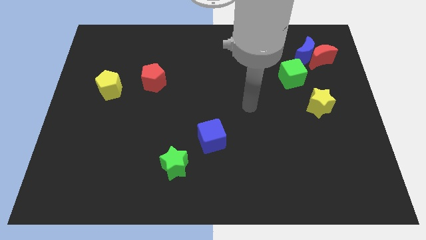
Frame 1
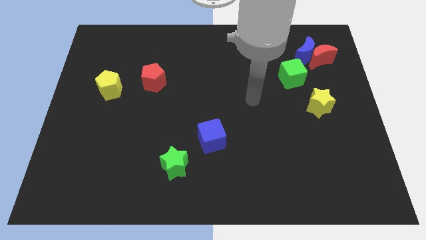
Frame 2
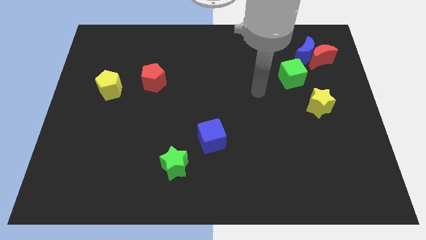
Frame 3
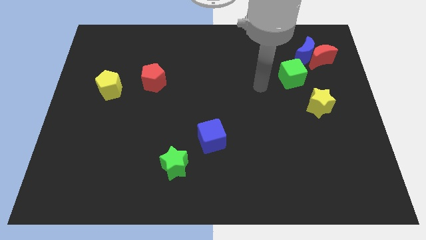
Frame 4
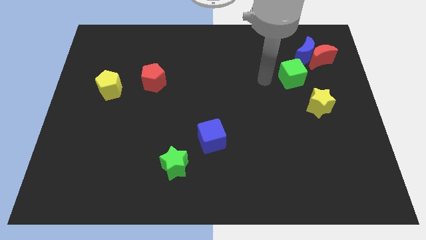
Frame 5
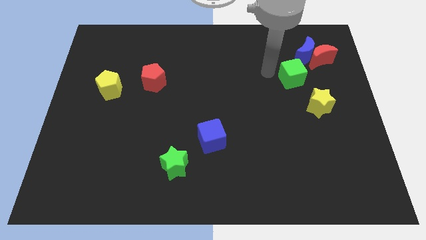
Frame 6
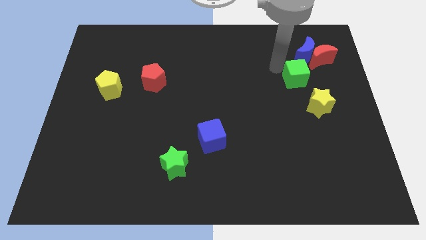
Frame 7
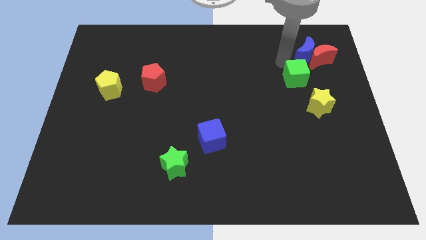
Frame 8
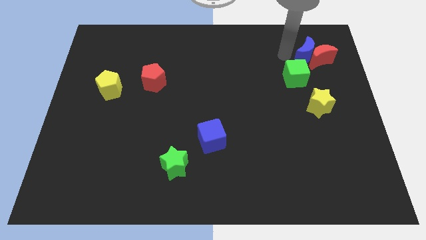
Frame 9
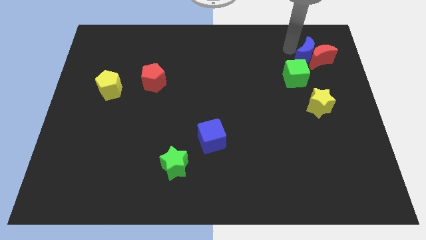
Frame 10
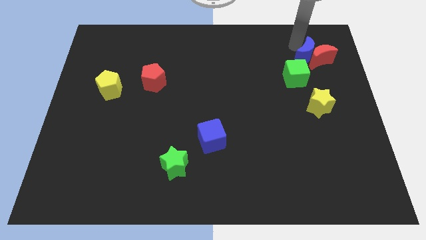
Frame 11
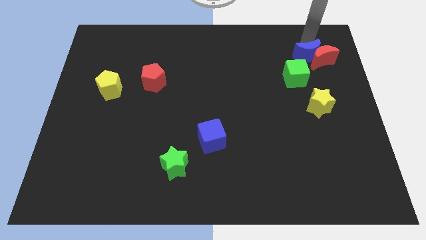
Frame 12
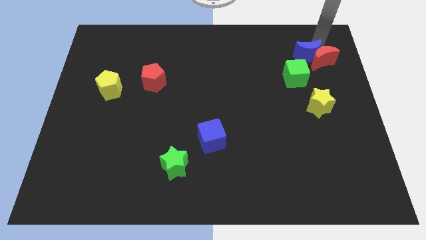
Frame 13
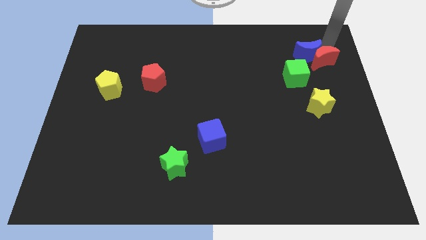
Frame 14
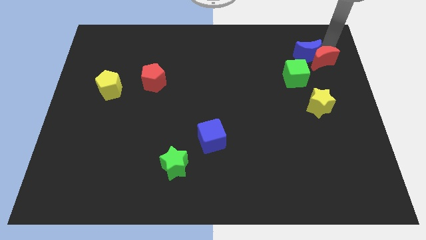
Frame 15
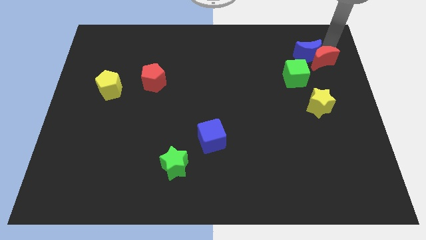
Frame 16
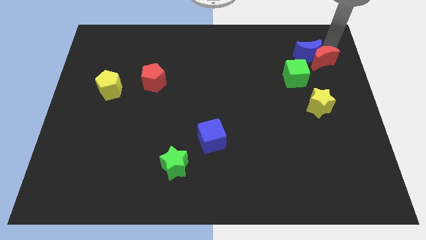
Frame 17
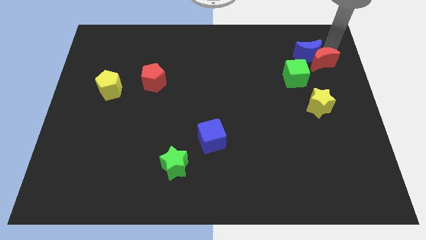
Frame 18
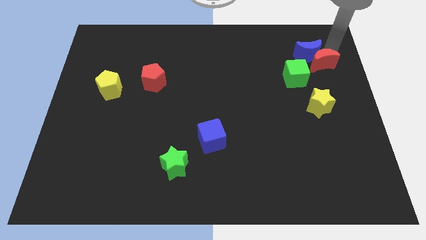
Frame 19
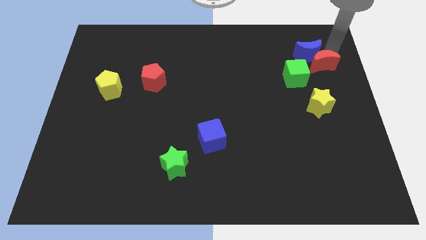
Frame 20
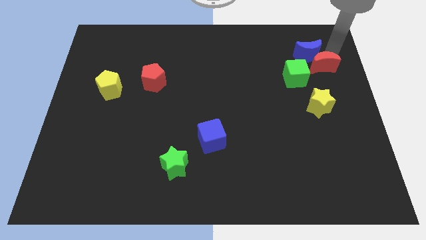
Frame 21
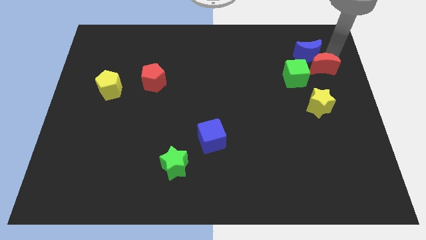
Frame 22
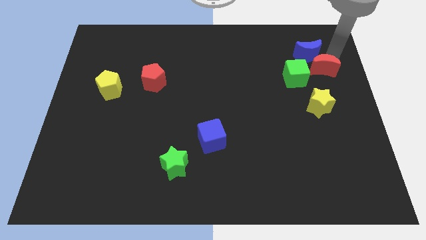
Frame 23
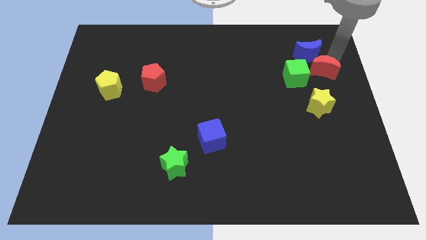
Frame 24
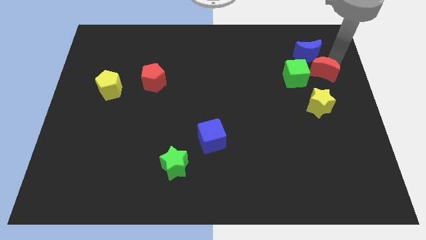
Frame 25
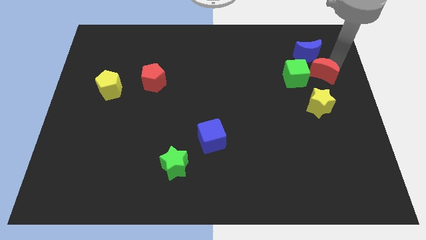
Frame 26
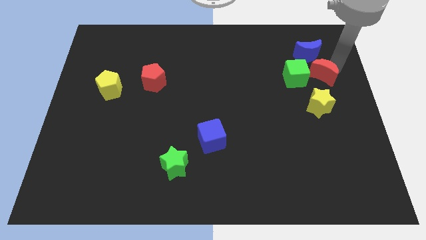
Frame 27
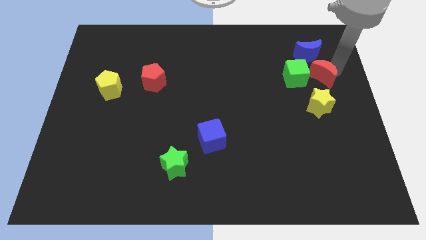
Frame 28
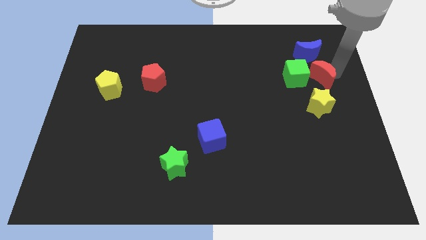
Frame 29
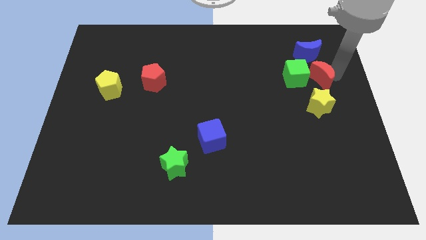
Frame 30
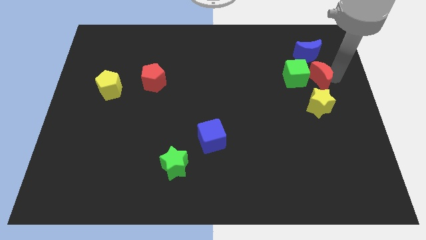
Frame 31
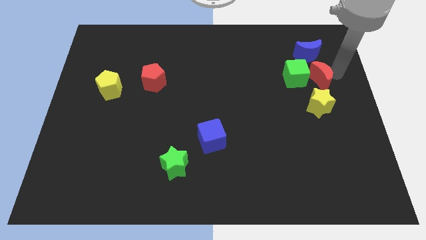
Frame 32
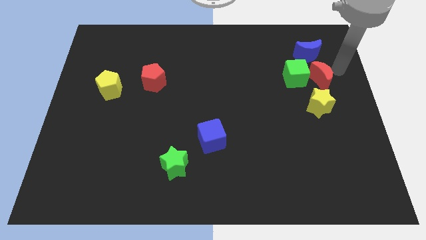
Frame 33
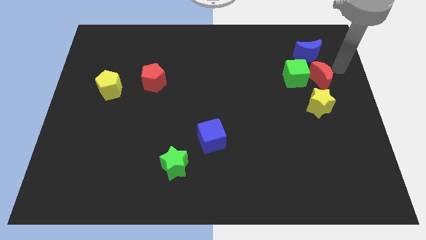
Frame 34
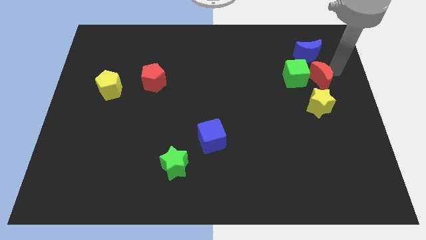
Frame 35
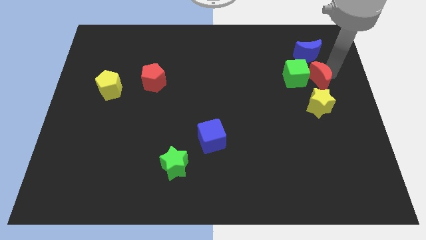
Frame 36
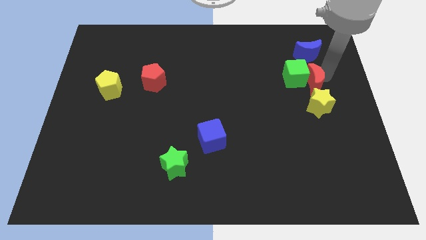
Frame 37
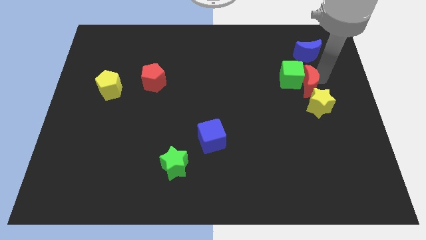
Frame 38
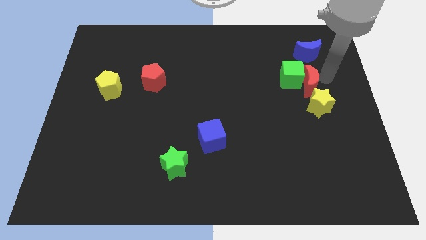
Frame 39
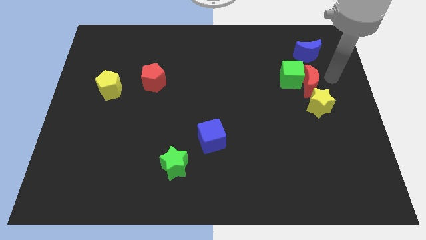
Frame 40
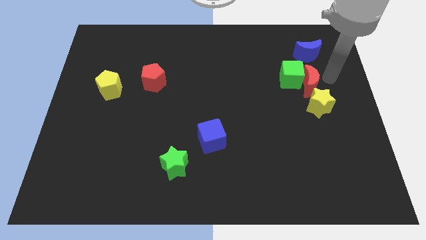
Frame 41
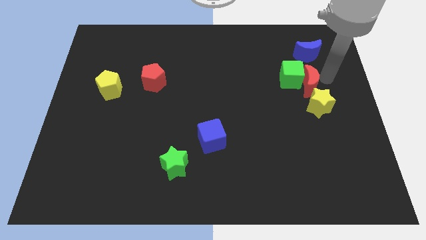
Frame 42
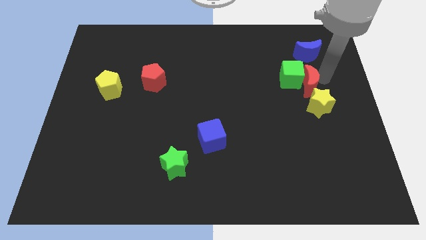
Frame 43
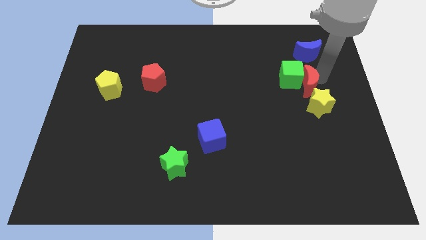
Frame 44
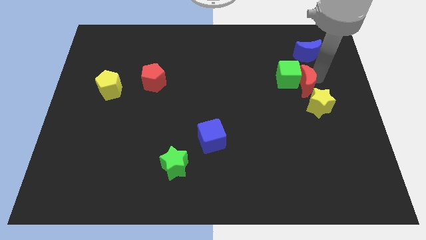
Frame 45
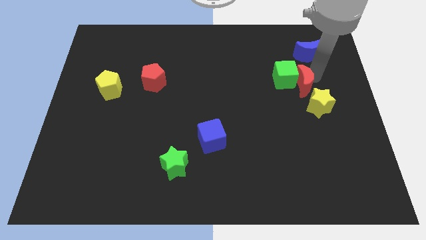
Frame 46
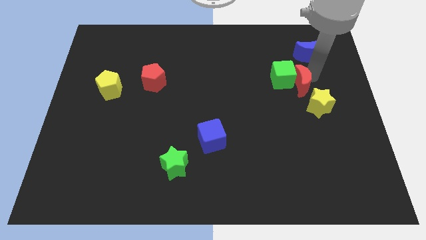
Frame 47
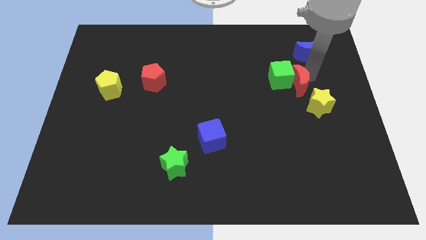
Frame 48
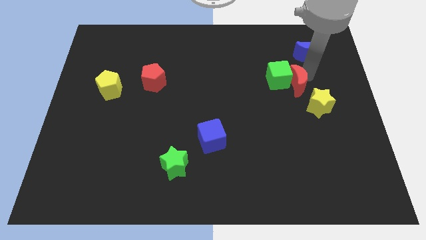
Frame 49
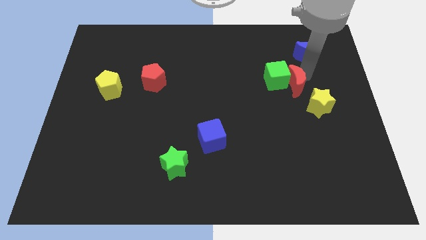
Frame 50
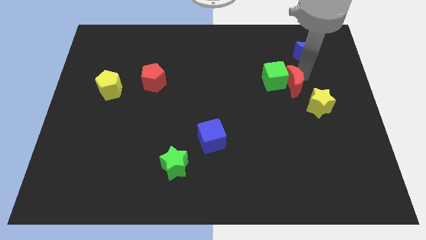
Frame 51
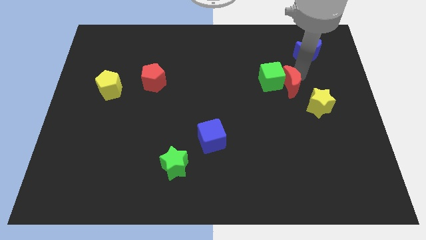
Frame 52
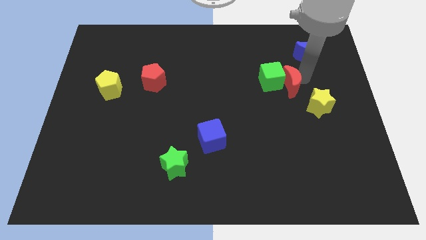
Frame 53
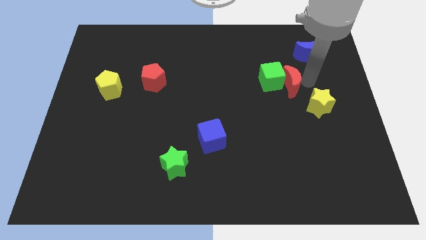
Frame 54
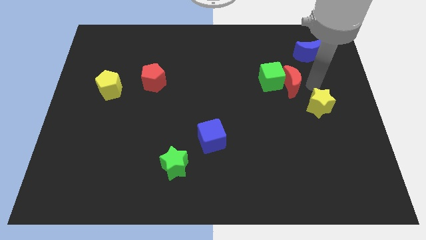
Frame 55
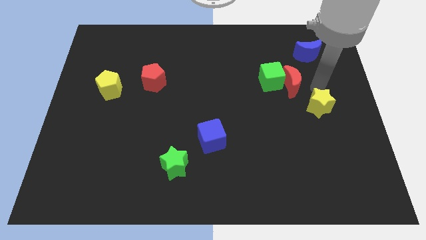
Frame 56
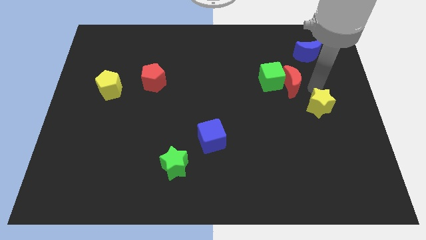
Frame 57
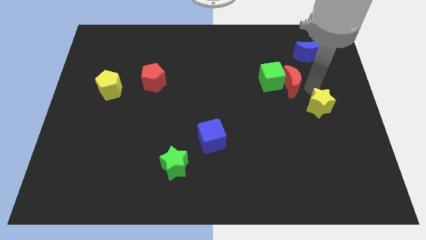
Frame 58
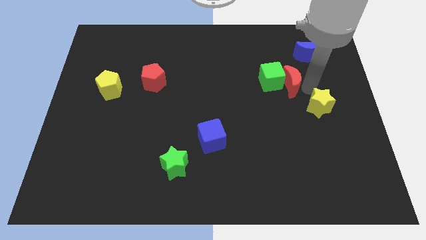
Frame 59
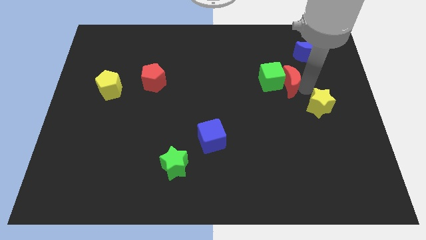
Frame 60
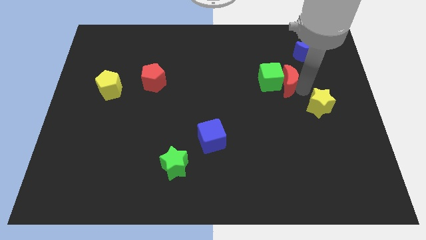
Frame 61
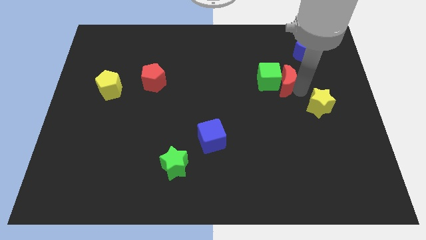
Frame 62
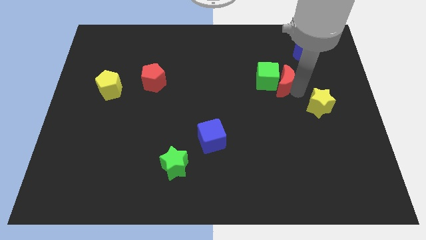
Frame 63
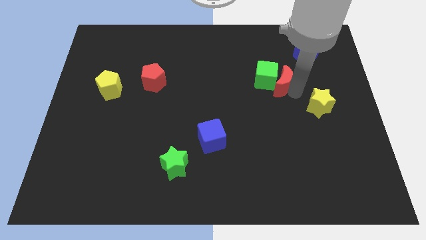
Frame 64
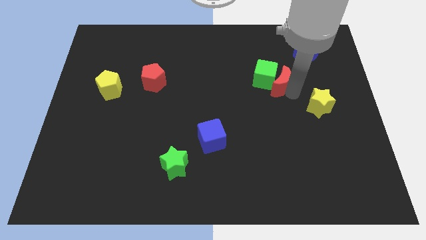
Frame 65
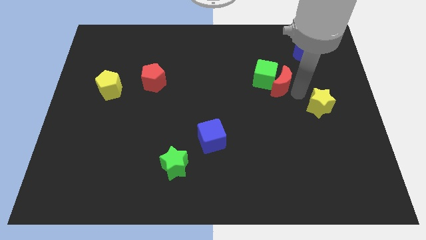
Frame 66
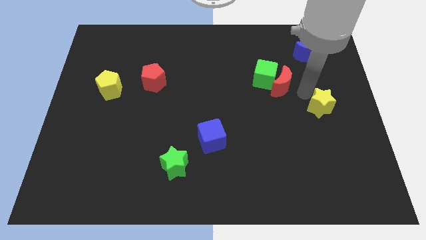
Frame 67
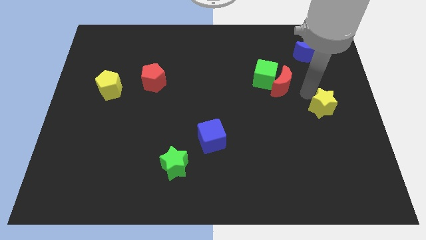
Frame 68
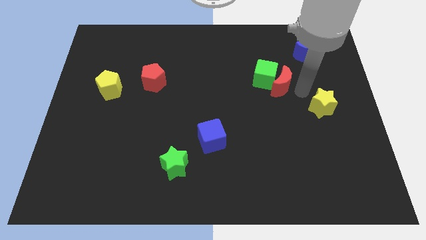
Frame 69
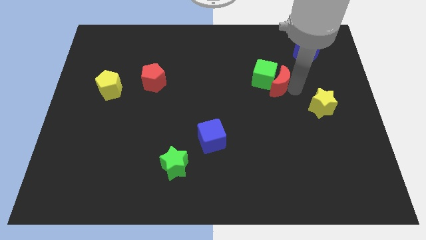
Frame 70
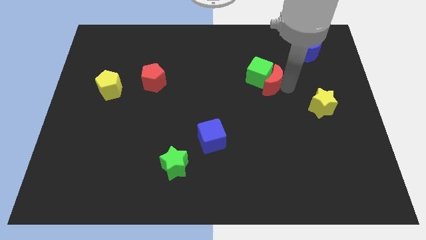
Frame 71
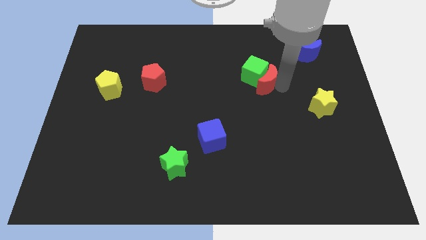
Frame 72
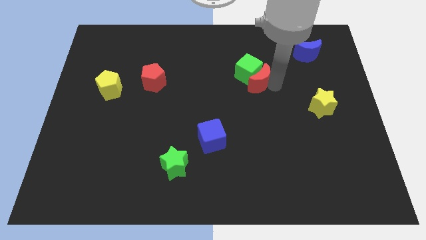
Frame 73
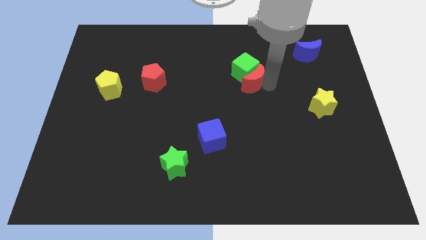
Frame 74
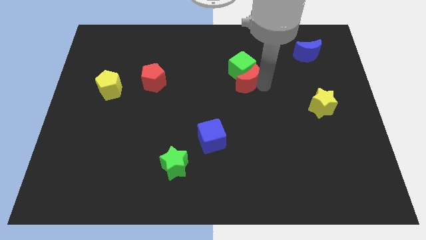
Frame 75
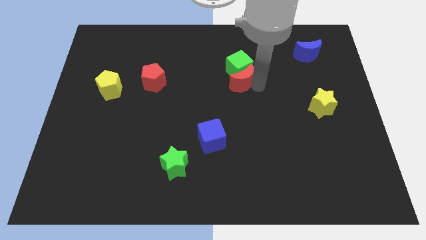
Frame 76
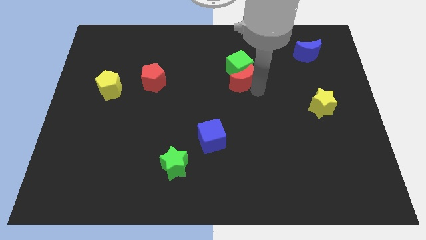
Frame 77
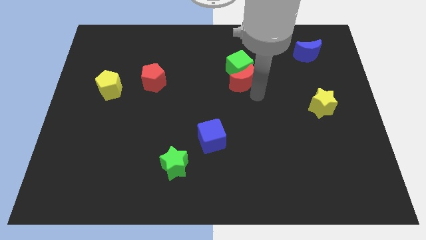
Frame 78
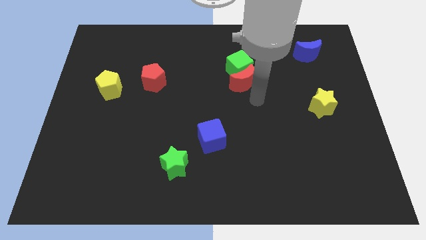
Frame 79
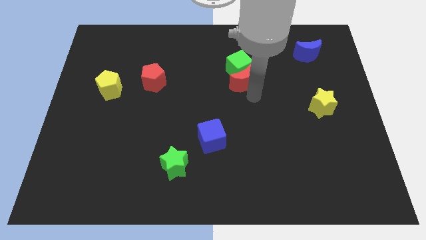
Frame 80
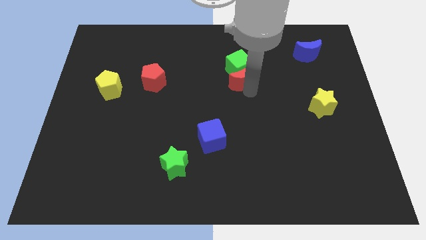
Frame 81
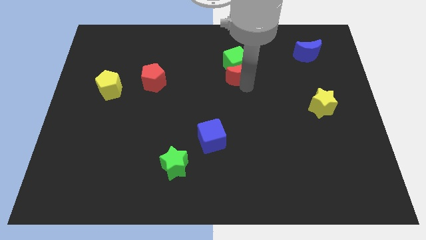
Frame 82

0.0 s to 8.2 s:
slide the red moon to the left
